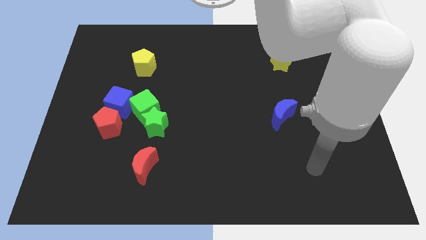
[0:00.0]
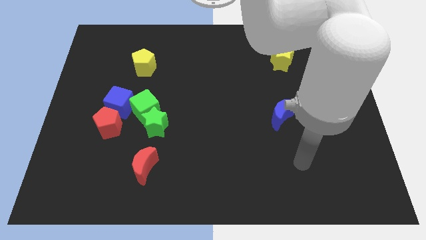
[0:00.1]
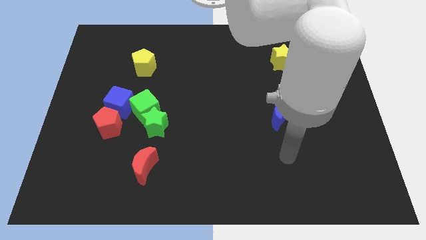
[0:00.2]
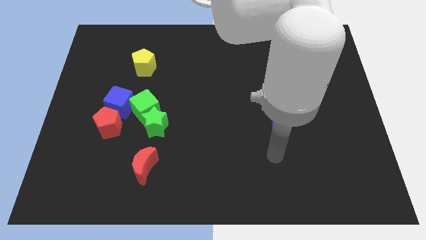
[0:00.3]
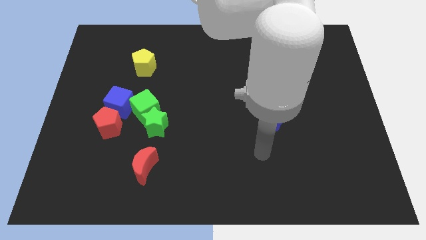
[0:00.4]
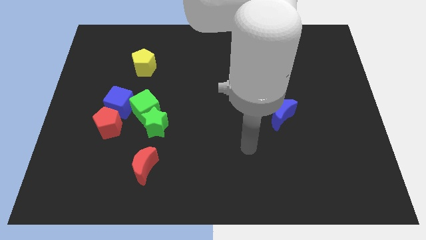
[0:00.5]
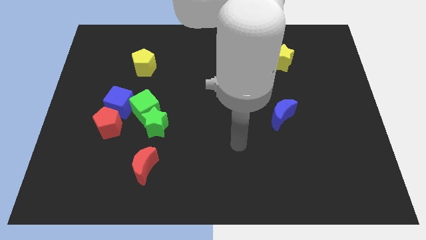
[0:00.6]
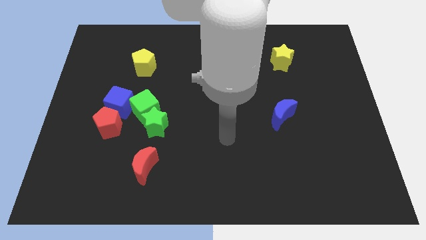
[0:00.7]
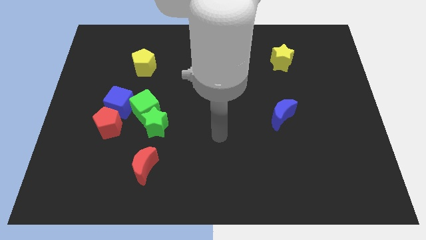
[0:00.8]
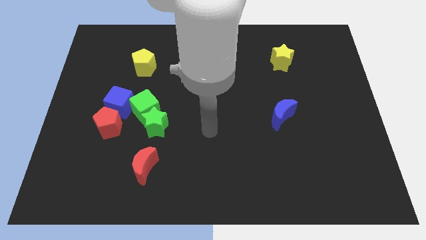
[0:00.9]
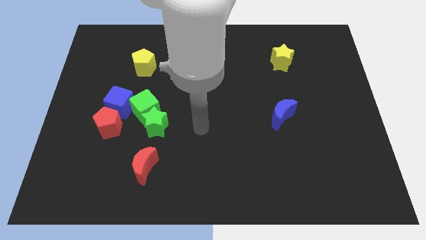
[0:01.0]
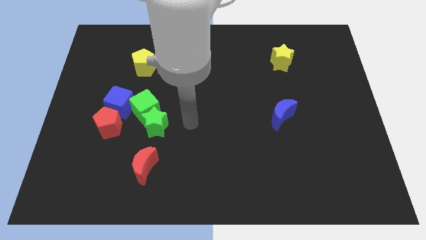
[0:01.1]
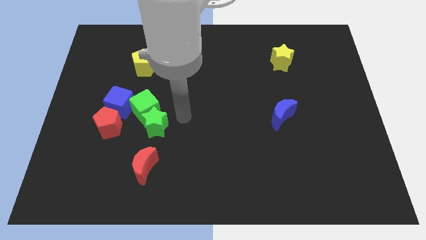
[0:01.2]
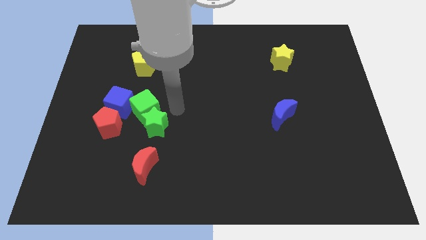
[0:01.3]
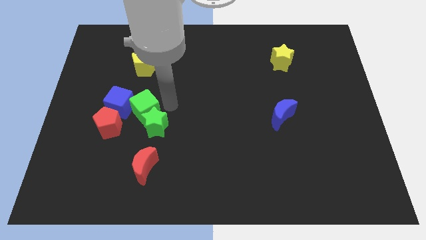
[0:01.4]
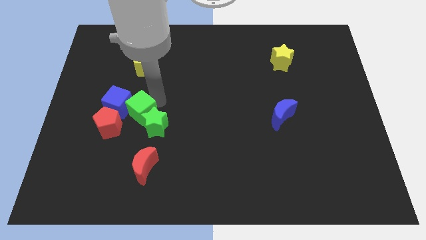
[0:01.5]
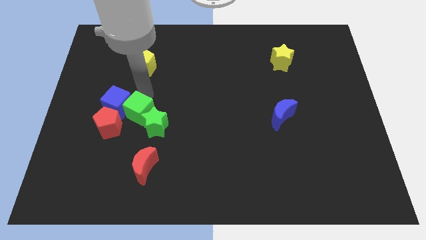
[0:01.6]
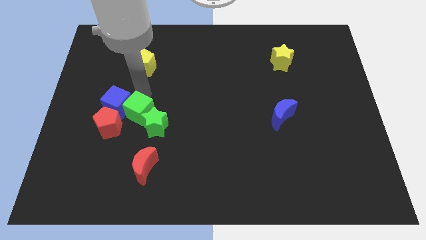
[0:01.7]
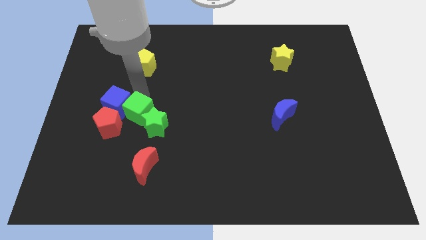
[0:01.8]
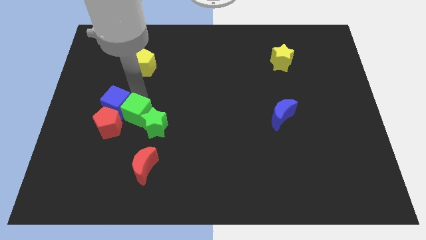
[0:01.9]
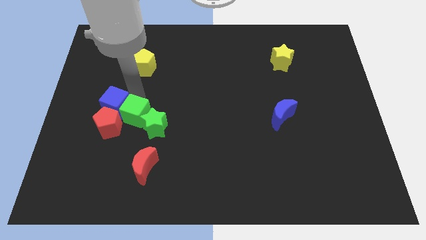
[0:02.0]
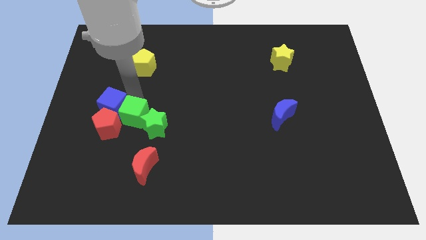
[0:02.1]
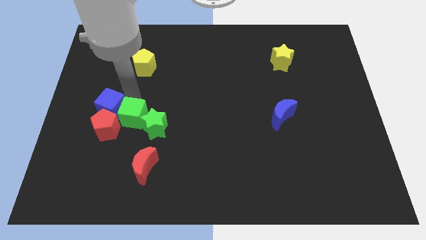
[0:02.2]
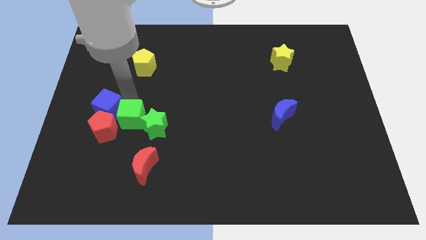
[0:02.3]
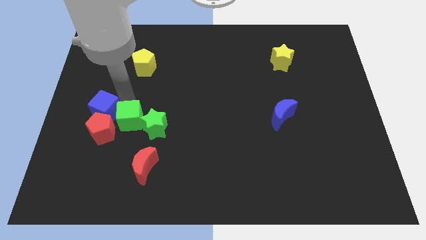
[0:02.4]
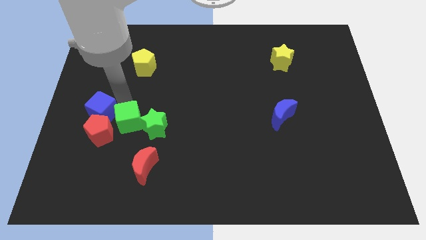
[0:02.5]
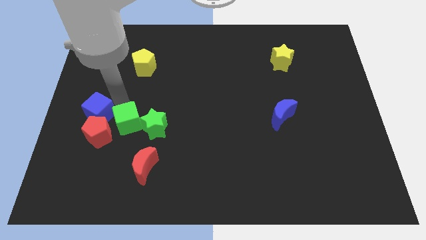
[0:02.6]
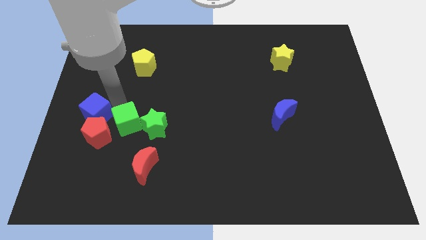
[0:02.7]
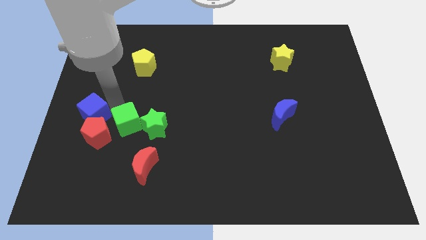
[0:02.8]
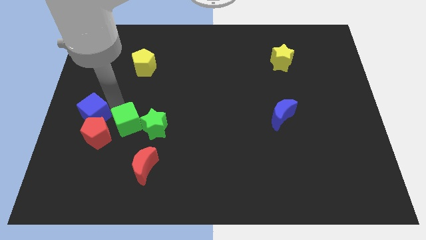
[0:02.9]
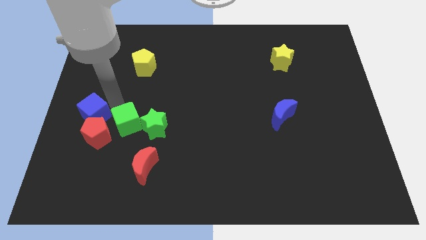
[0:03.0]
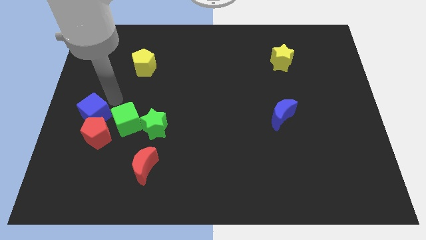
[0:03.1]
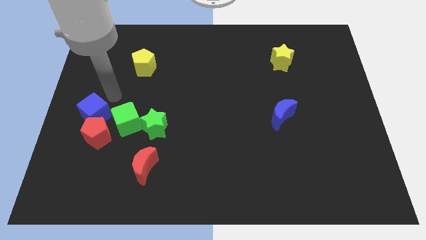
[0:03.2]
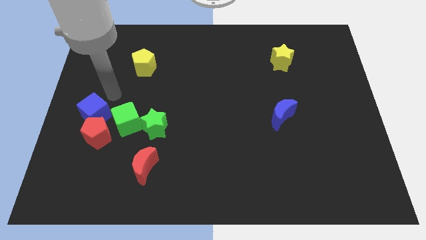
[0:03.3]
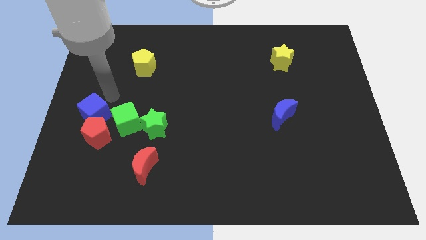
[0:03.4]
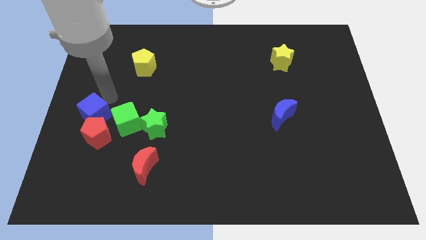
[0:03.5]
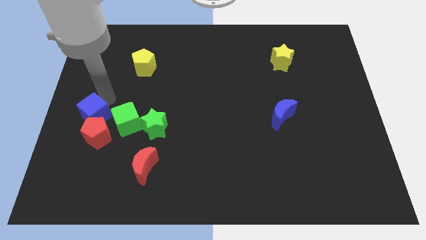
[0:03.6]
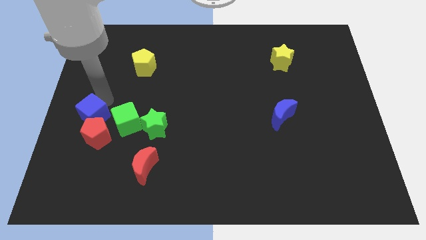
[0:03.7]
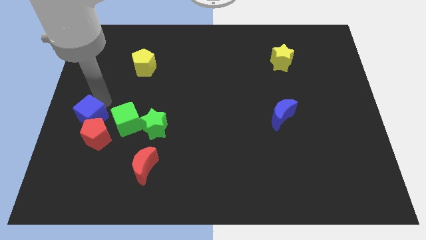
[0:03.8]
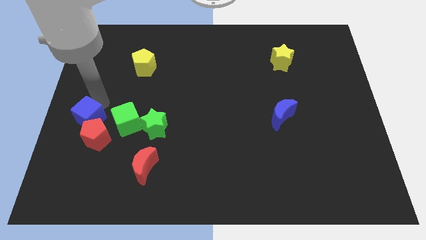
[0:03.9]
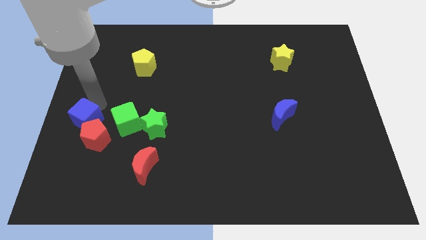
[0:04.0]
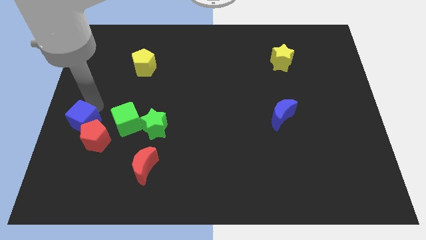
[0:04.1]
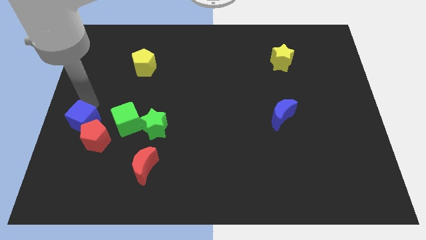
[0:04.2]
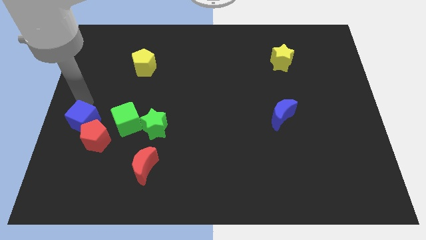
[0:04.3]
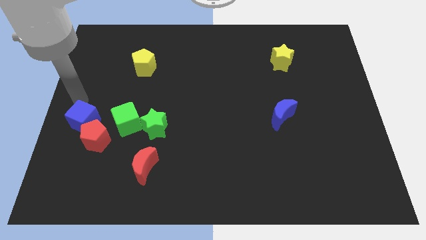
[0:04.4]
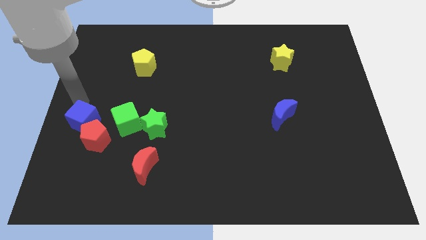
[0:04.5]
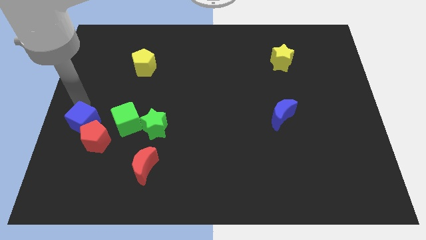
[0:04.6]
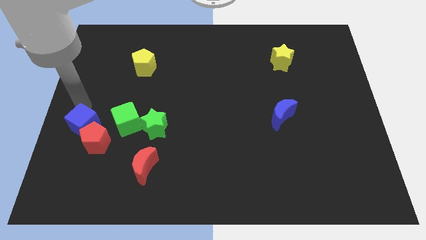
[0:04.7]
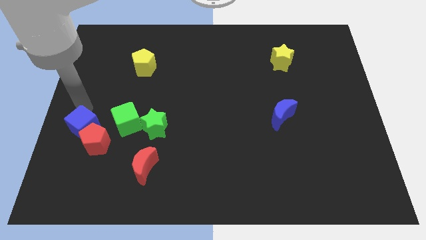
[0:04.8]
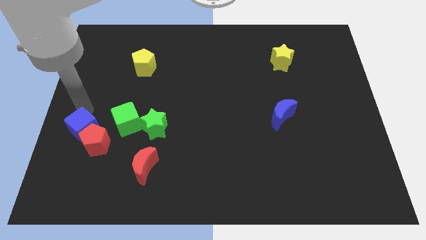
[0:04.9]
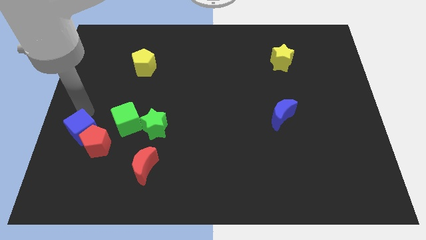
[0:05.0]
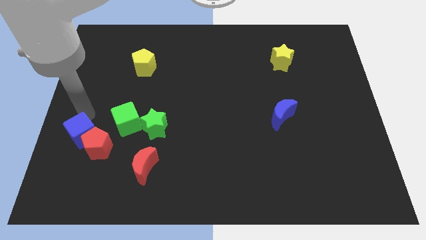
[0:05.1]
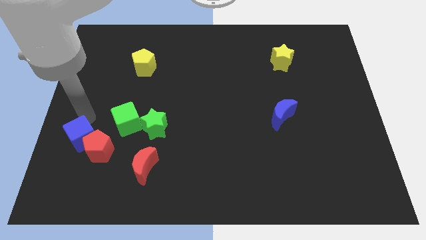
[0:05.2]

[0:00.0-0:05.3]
slide the blue cube down a little bit

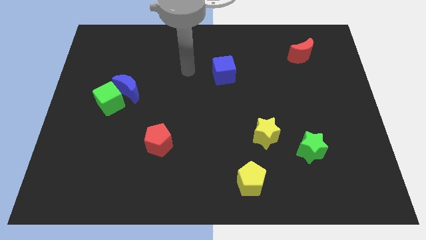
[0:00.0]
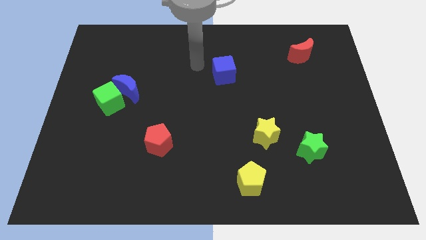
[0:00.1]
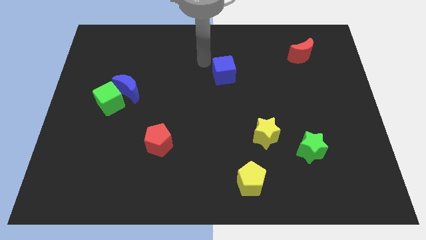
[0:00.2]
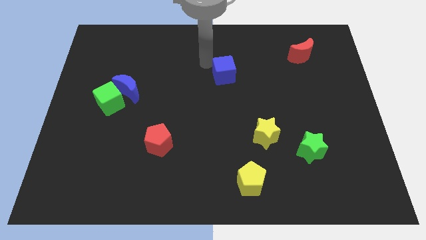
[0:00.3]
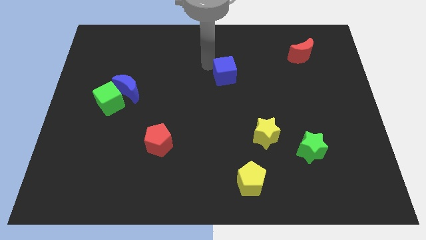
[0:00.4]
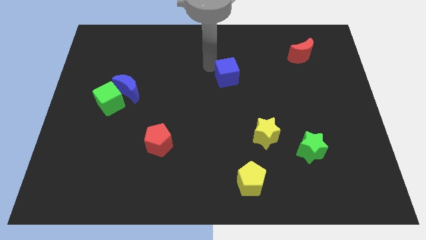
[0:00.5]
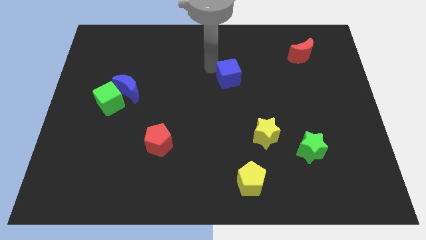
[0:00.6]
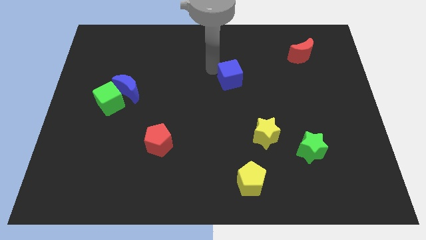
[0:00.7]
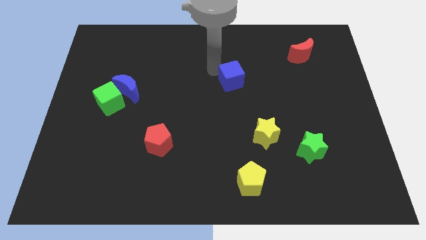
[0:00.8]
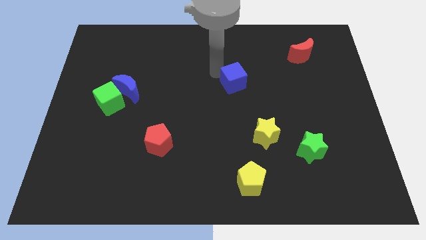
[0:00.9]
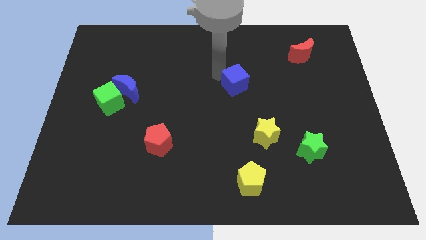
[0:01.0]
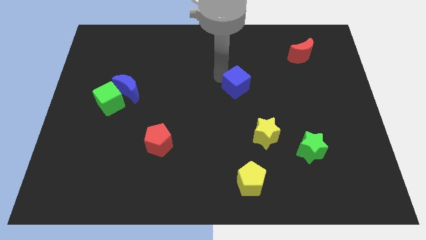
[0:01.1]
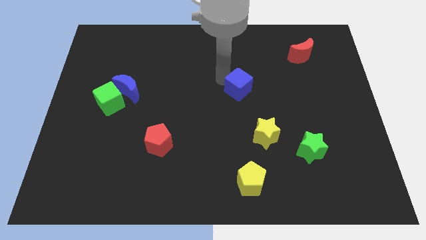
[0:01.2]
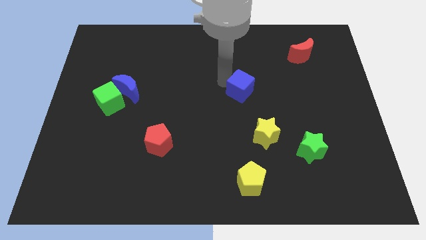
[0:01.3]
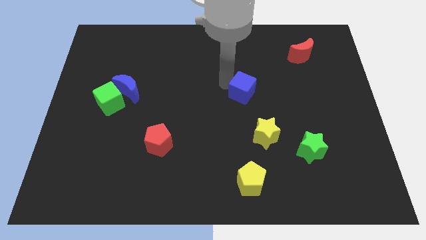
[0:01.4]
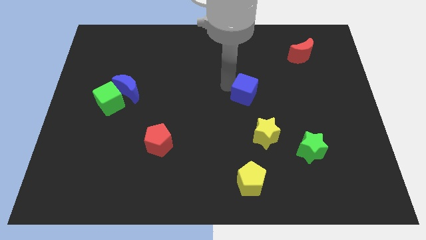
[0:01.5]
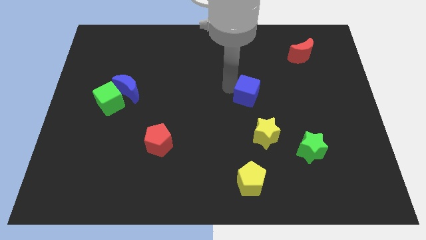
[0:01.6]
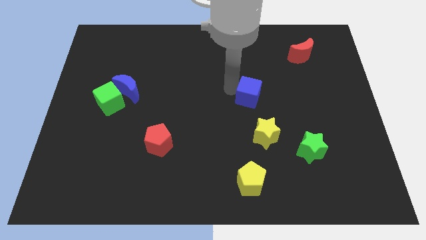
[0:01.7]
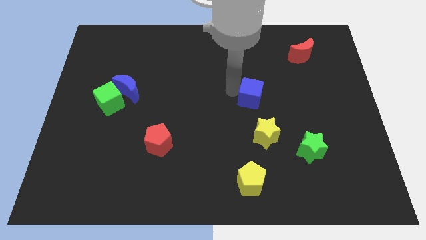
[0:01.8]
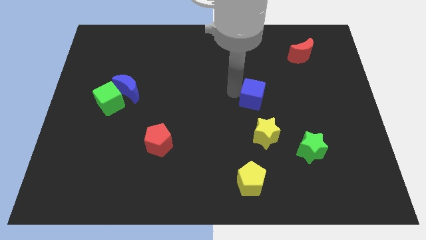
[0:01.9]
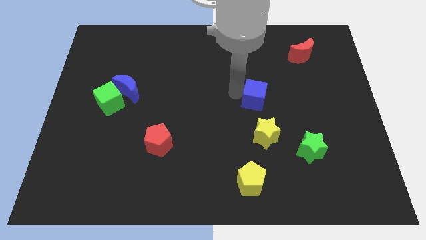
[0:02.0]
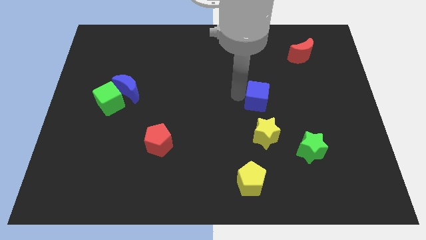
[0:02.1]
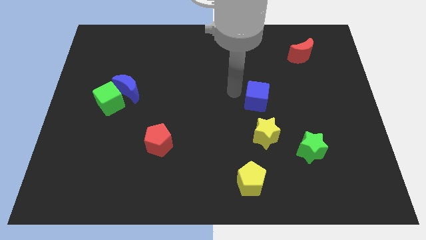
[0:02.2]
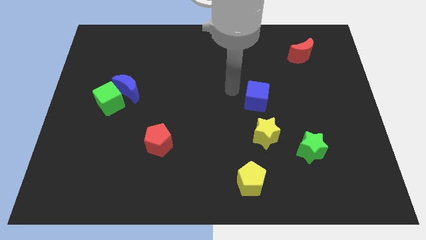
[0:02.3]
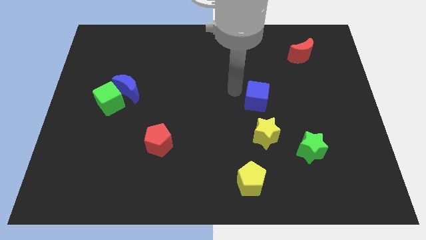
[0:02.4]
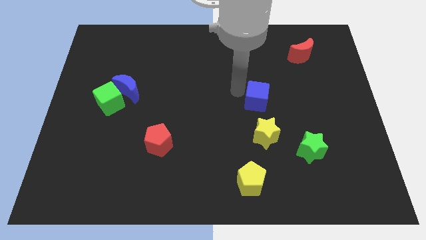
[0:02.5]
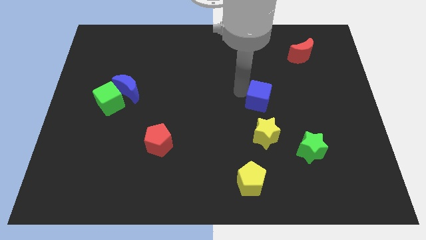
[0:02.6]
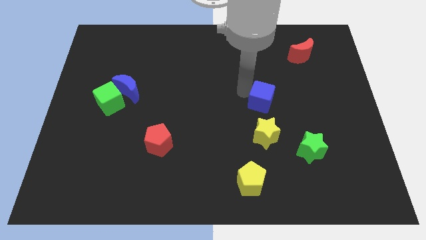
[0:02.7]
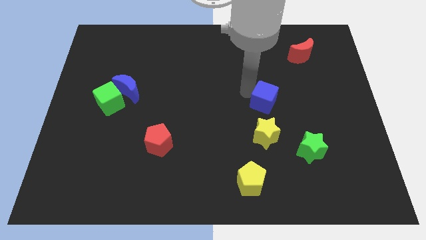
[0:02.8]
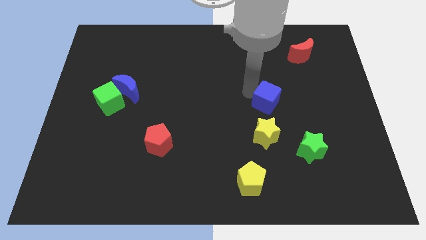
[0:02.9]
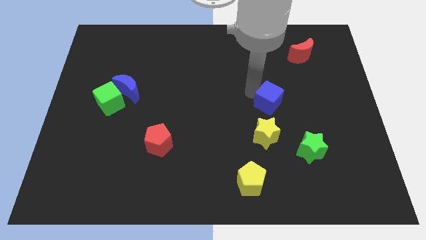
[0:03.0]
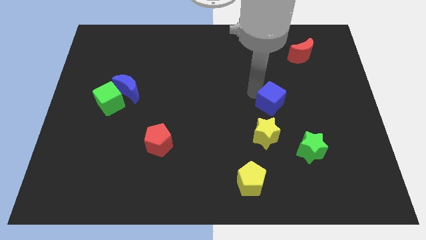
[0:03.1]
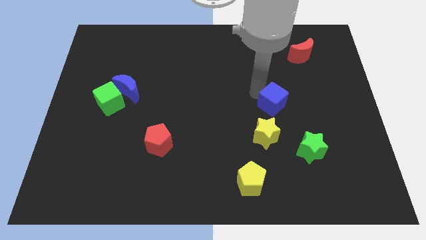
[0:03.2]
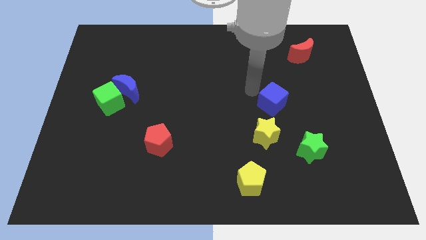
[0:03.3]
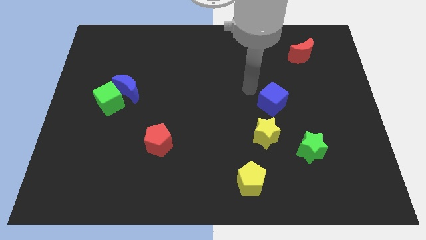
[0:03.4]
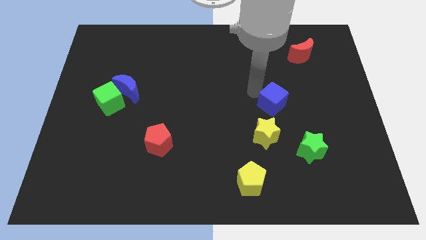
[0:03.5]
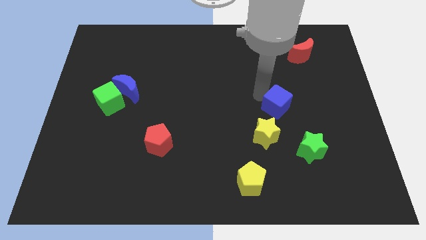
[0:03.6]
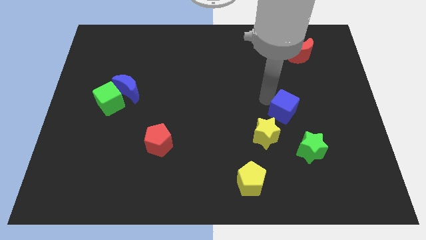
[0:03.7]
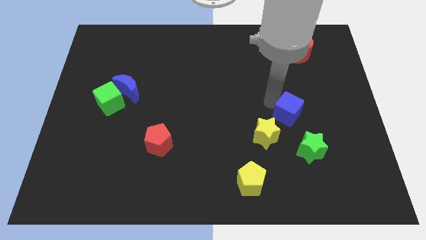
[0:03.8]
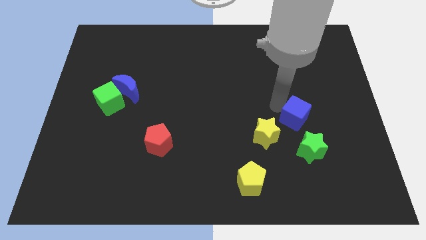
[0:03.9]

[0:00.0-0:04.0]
push the blue cube diagonally downwards and right
